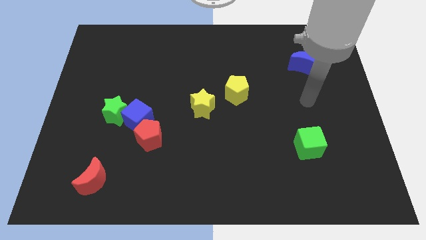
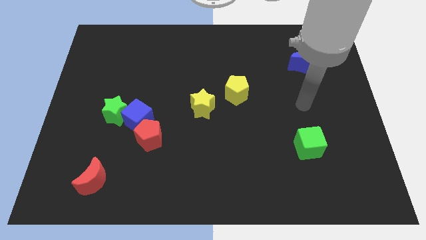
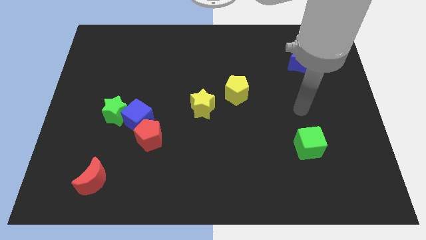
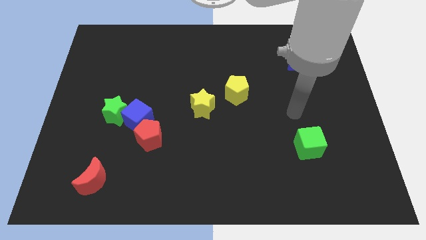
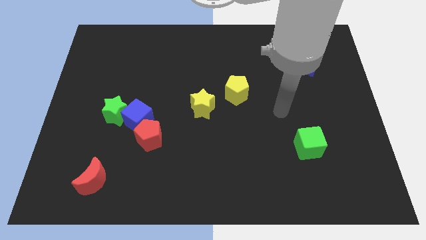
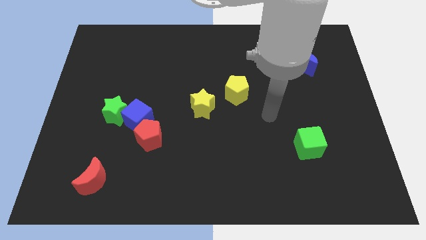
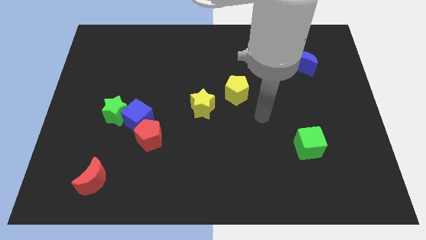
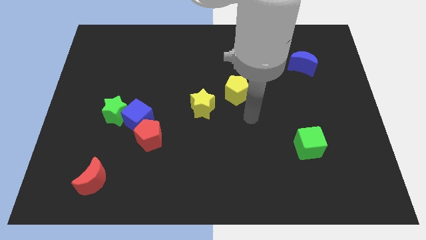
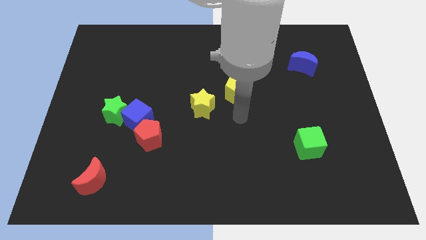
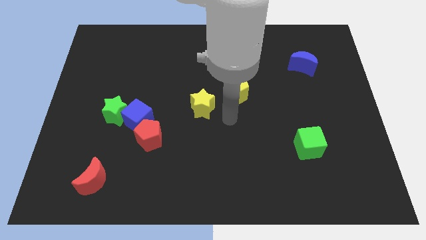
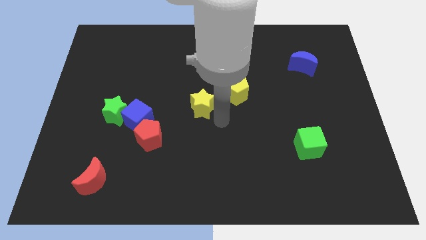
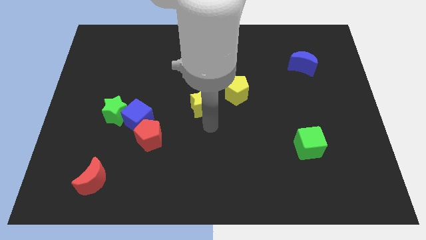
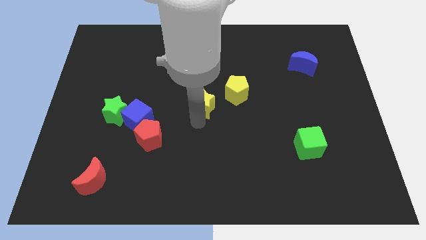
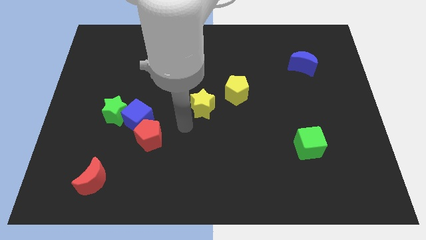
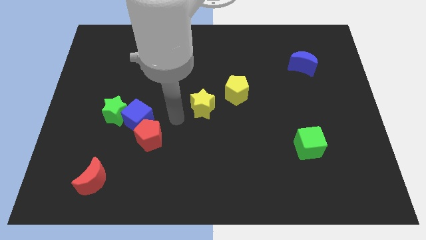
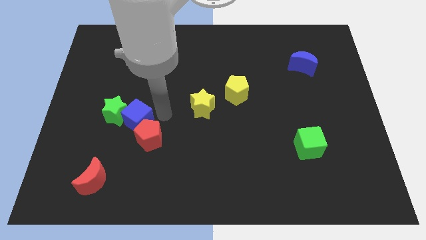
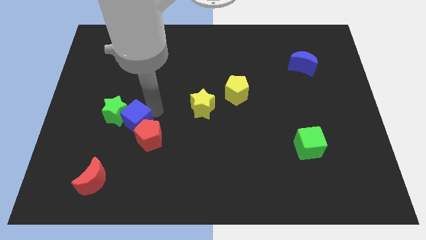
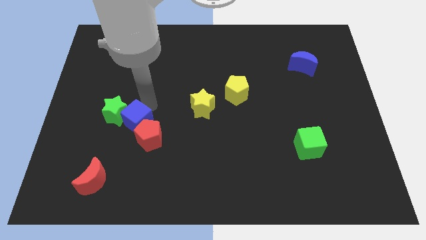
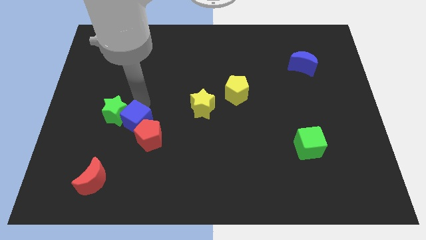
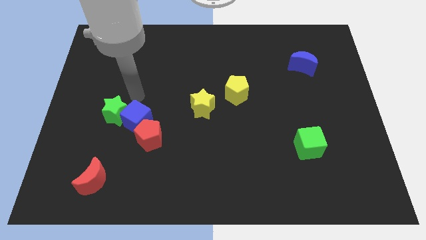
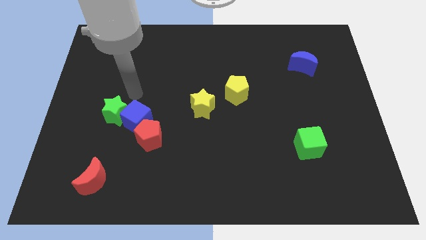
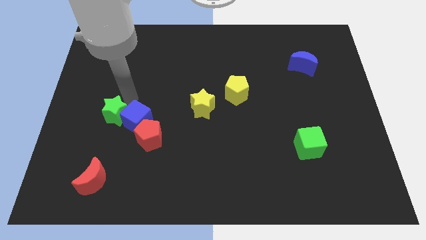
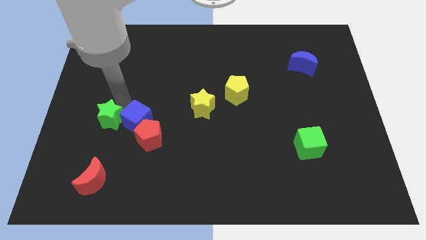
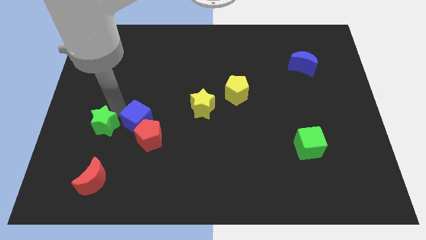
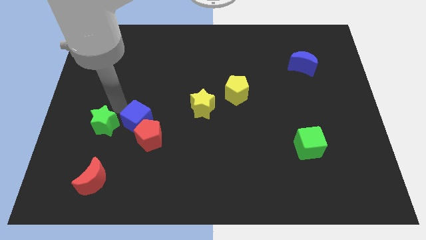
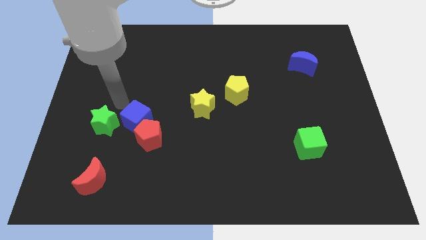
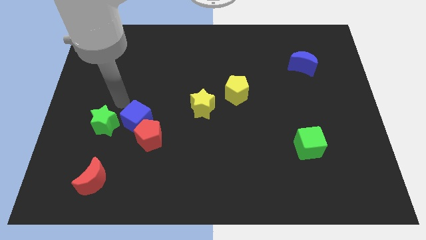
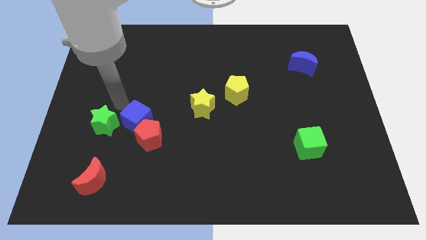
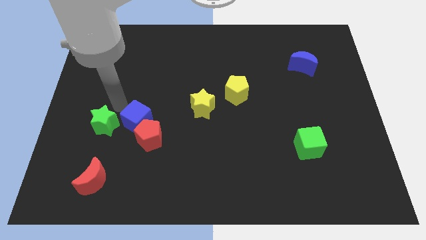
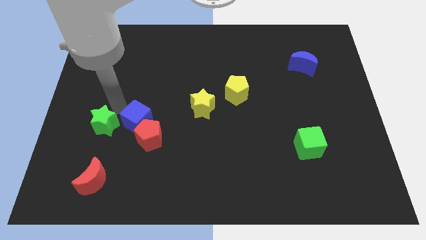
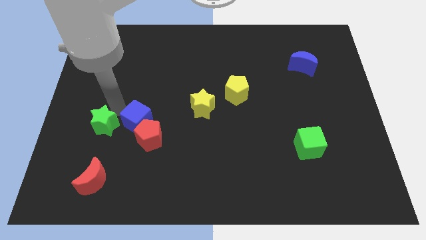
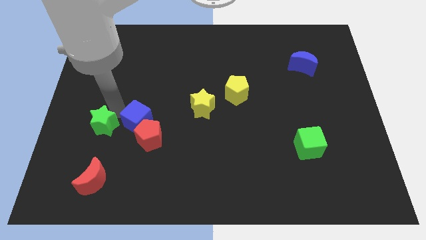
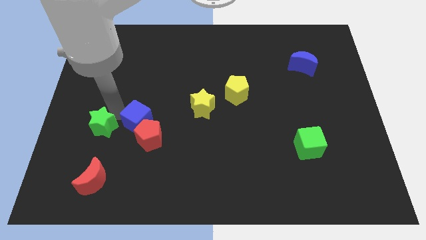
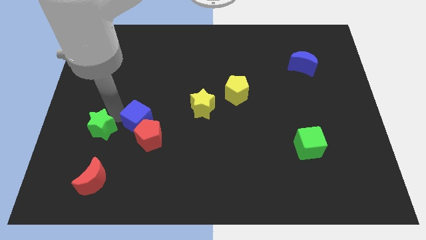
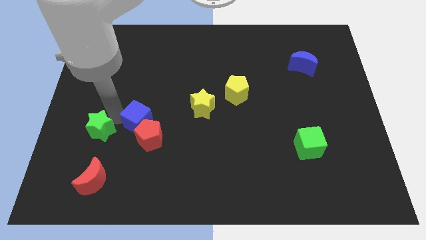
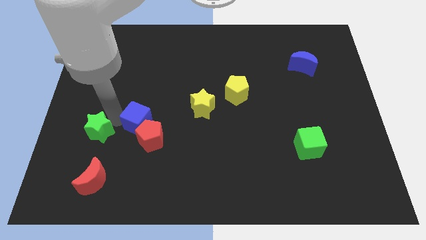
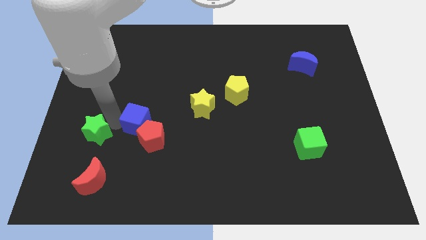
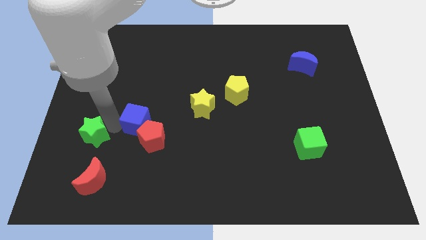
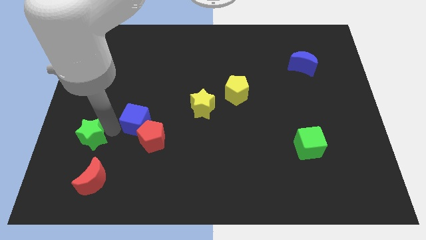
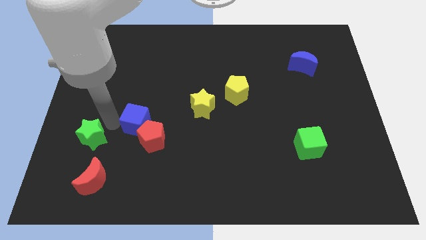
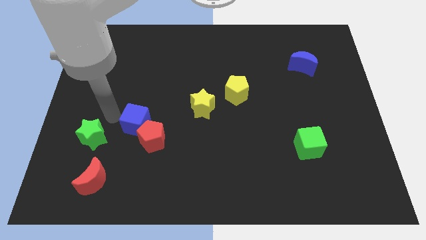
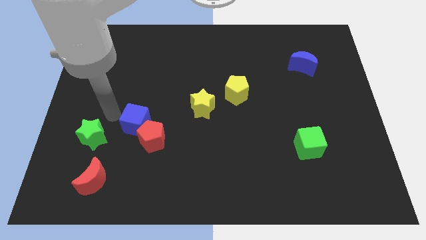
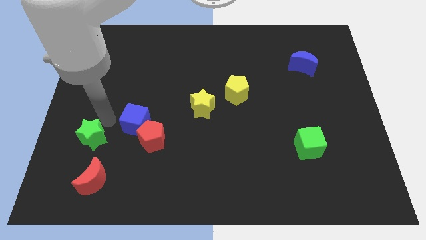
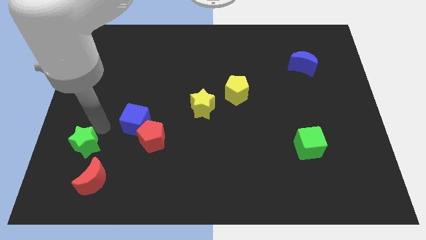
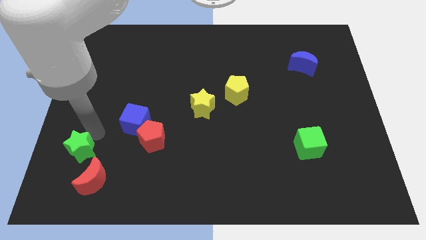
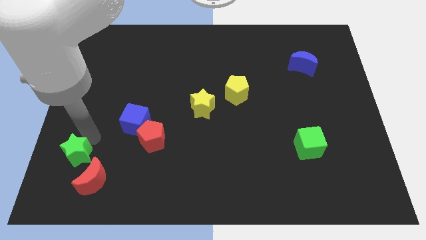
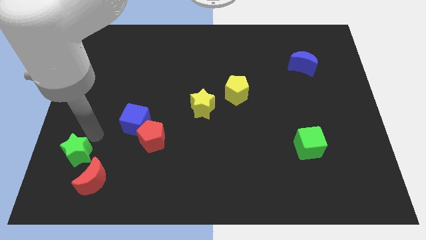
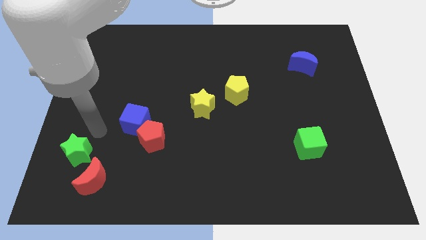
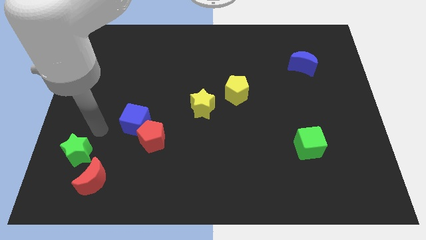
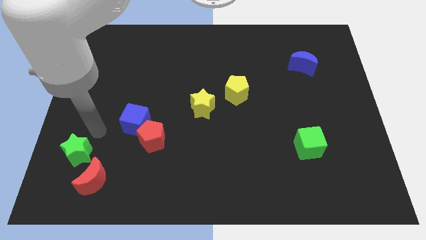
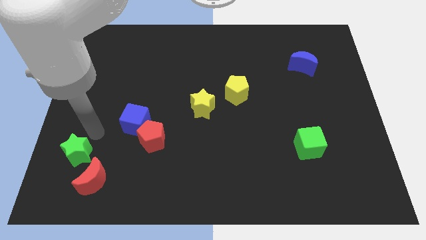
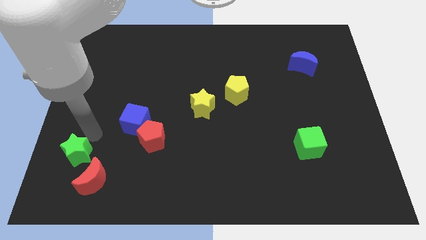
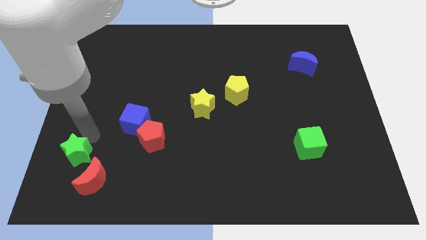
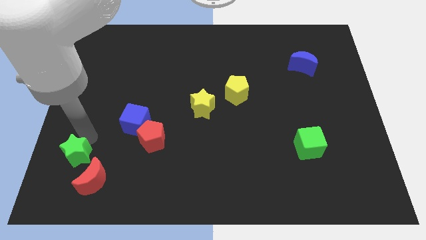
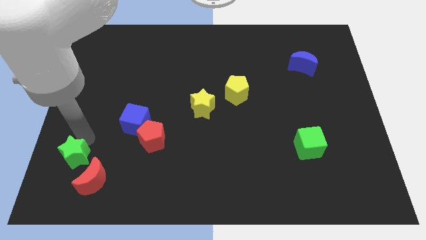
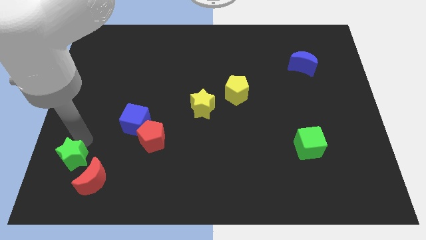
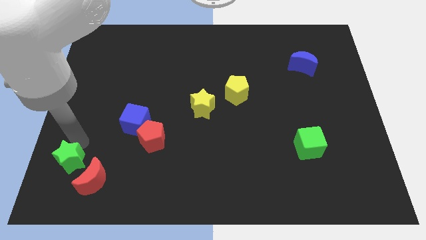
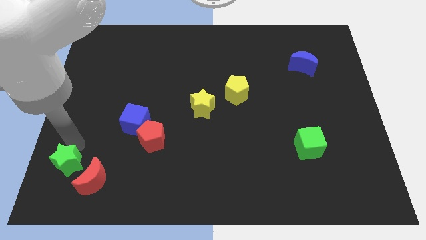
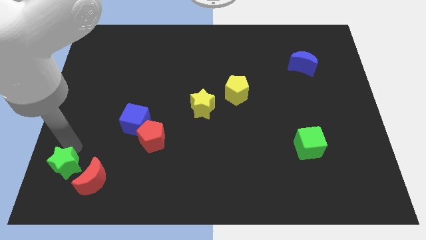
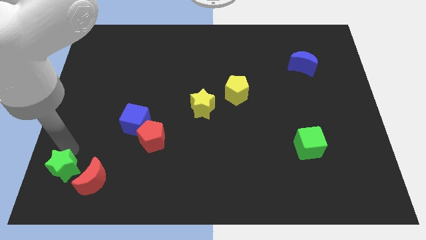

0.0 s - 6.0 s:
move the green star to the lower left corner

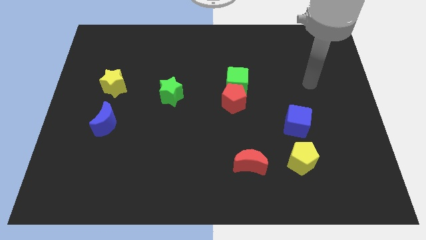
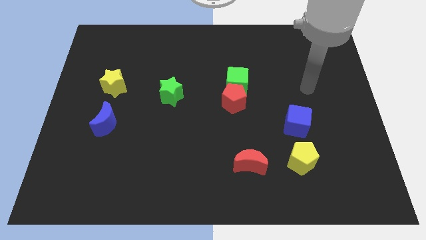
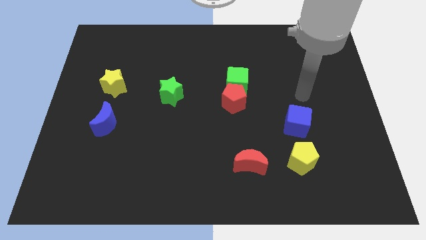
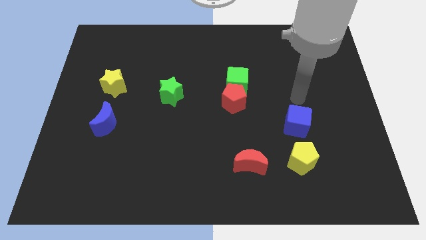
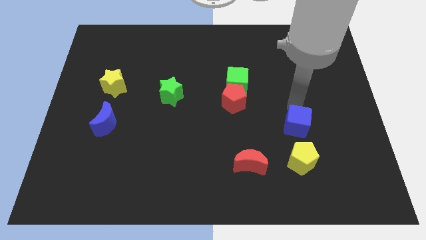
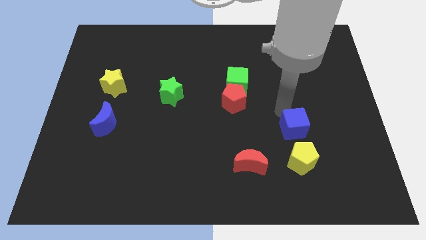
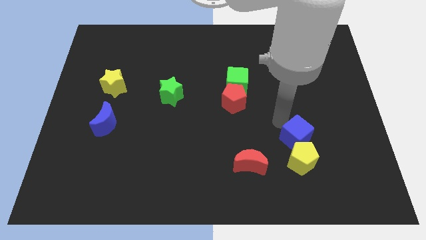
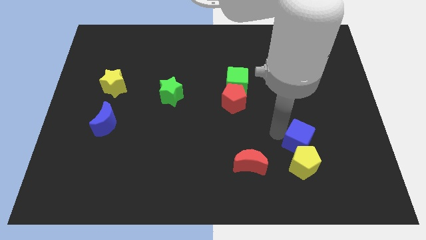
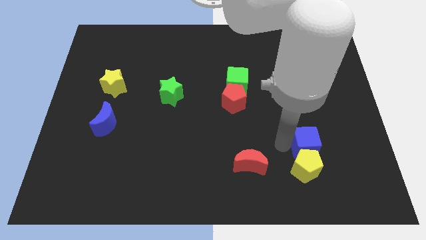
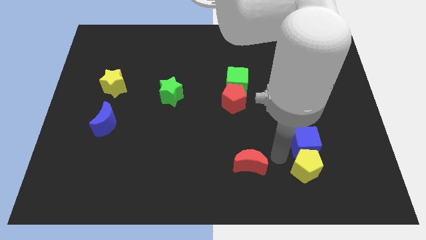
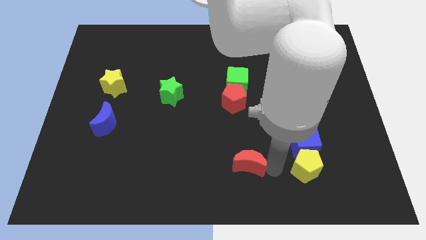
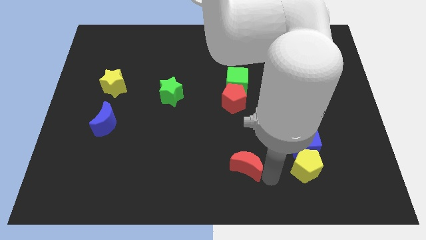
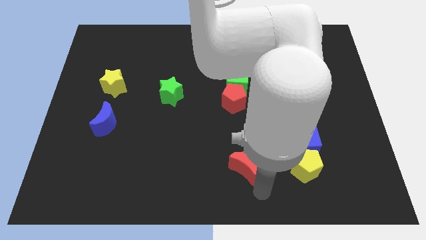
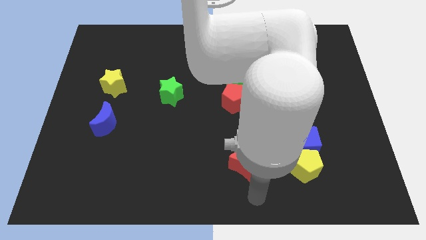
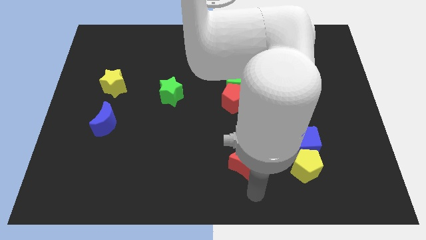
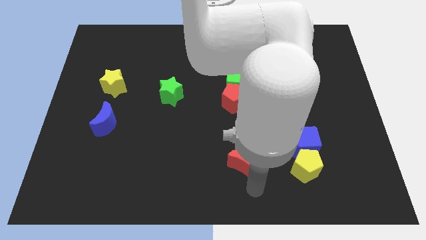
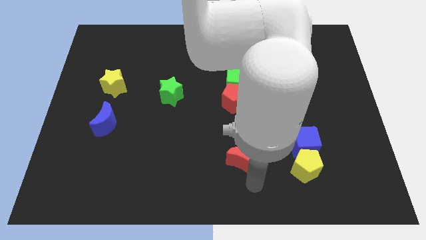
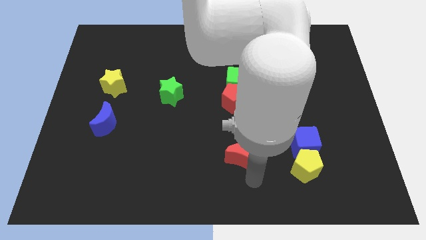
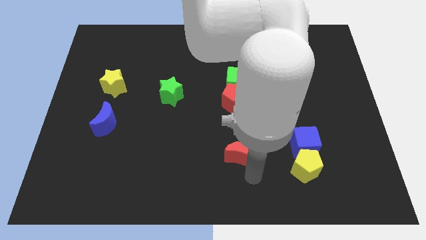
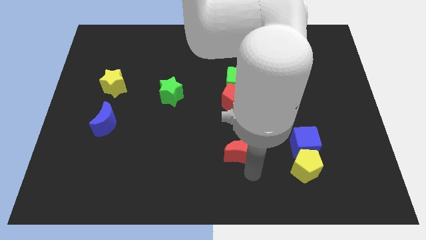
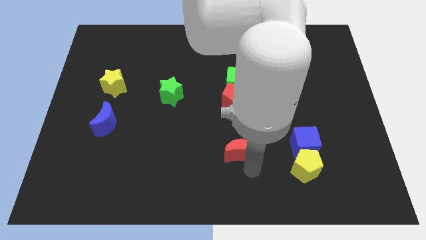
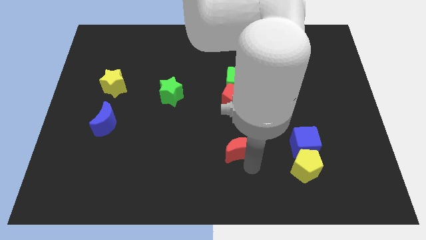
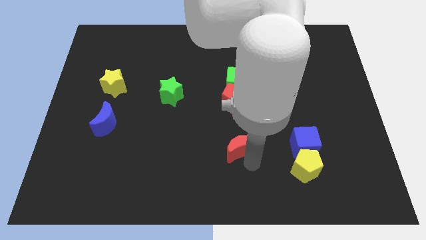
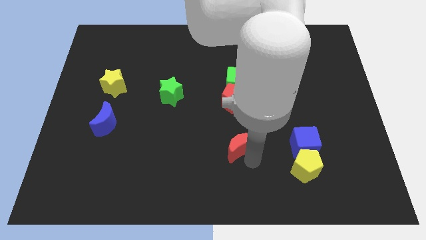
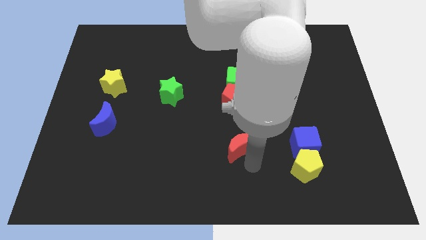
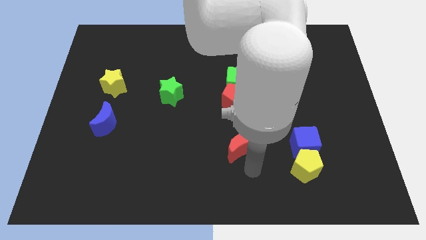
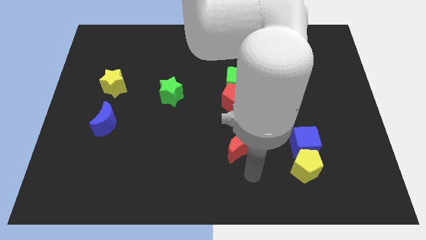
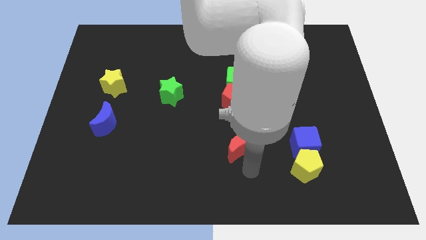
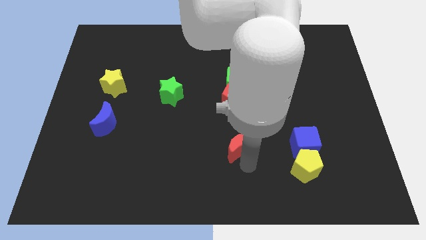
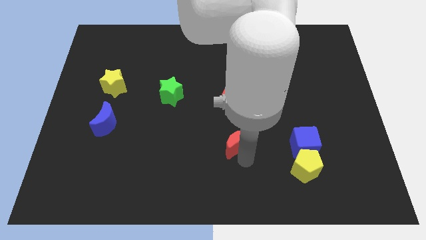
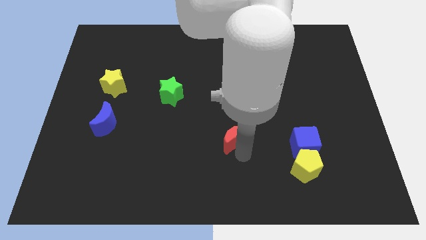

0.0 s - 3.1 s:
slide the red moon to the center of the board
